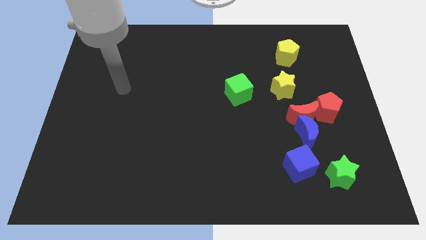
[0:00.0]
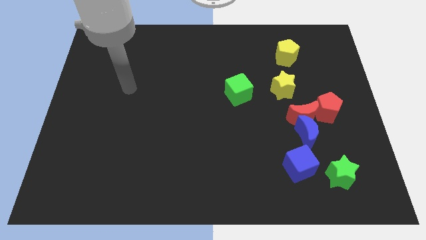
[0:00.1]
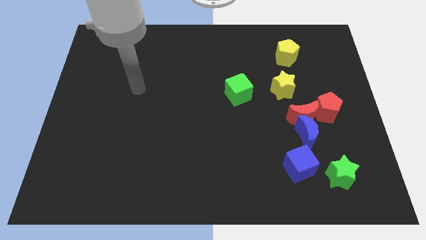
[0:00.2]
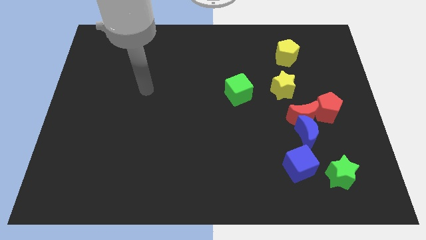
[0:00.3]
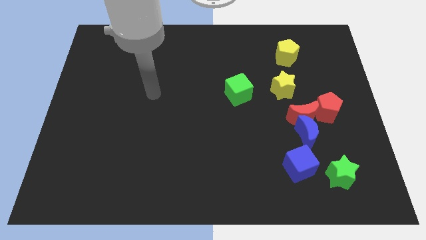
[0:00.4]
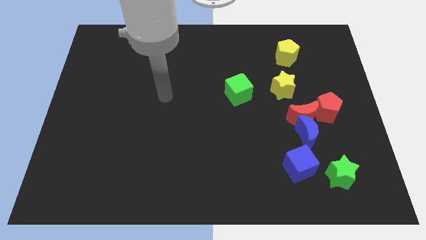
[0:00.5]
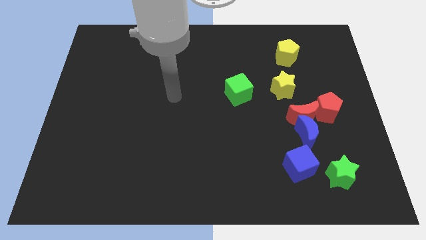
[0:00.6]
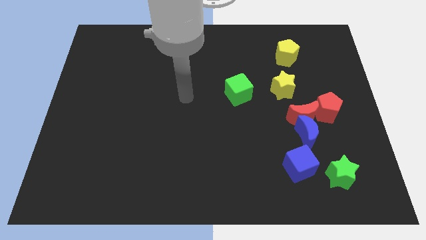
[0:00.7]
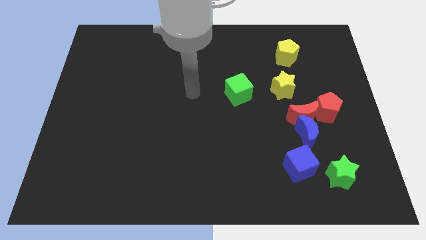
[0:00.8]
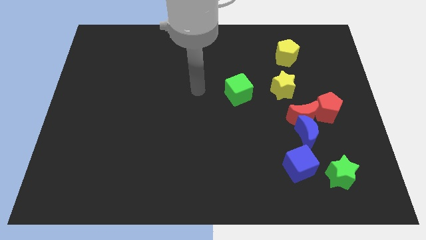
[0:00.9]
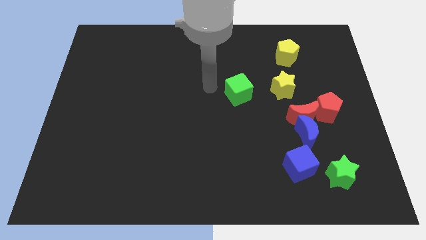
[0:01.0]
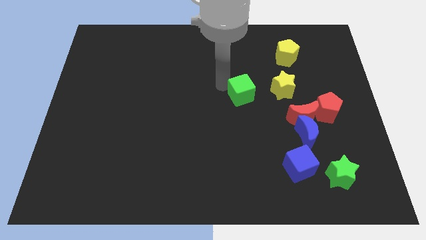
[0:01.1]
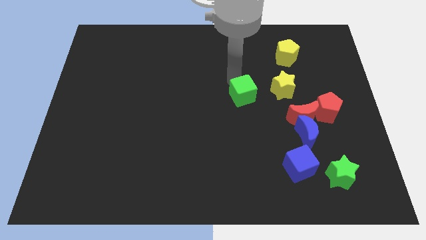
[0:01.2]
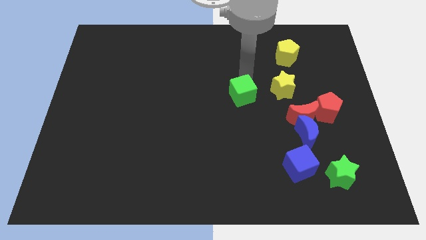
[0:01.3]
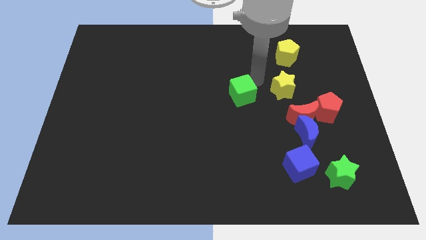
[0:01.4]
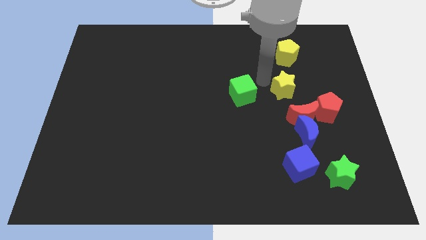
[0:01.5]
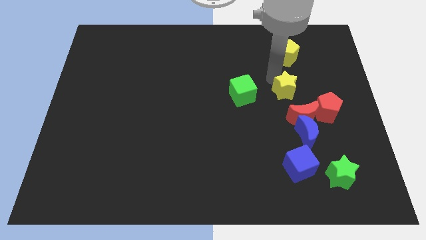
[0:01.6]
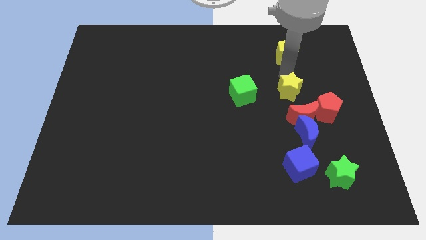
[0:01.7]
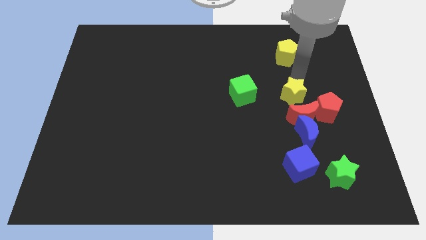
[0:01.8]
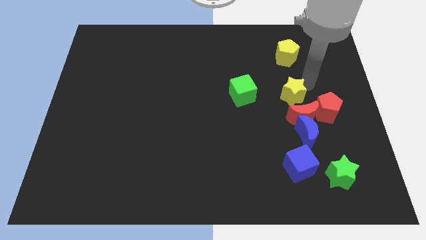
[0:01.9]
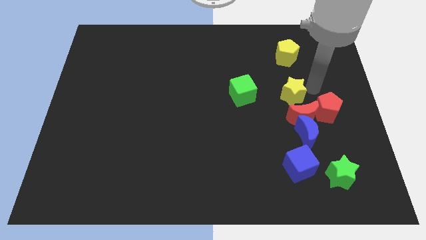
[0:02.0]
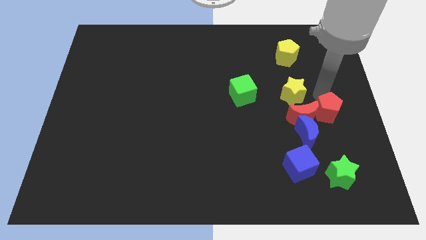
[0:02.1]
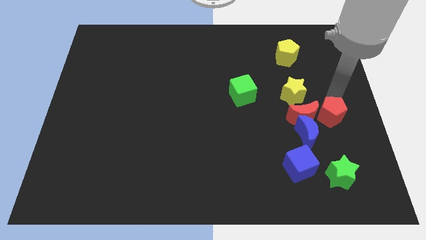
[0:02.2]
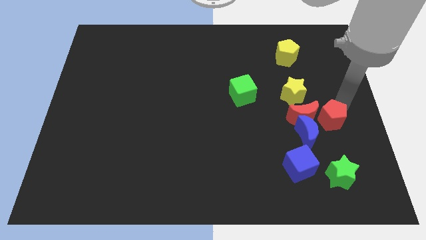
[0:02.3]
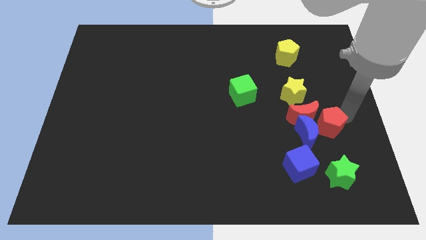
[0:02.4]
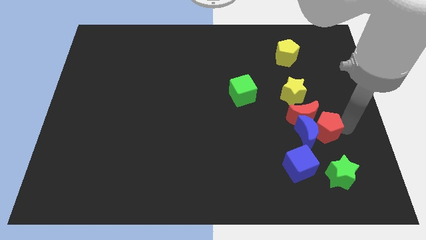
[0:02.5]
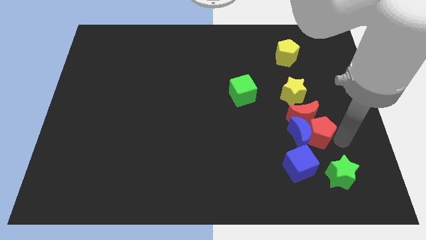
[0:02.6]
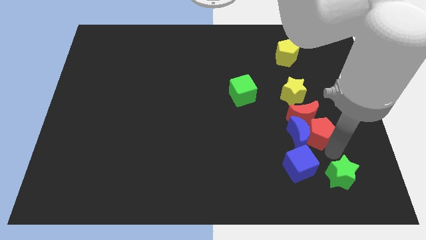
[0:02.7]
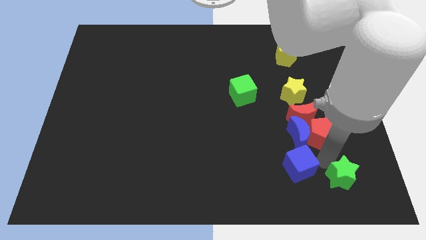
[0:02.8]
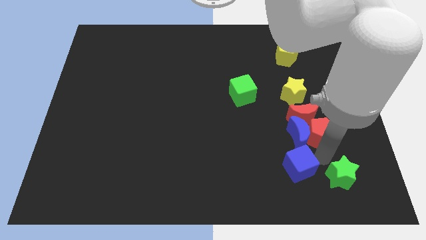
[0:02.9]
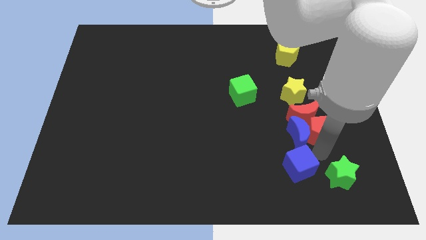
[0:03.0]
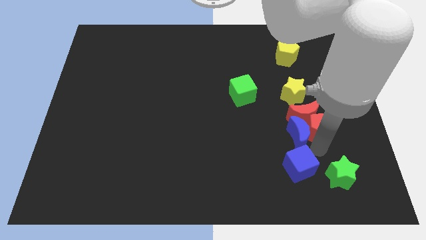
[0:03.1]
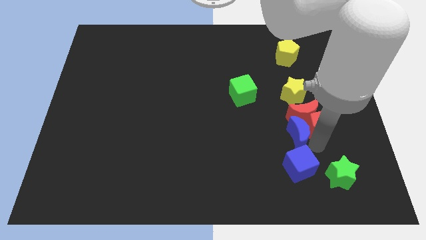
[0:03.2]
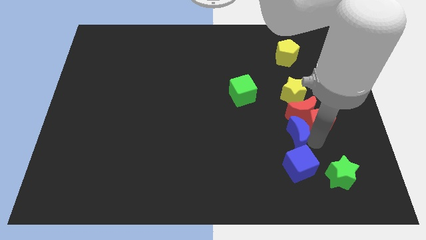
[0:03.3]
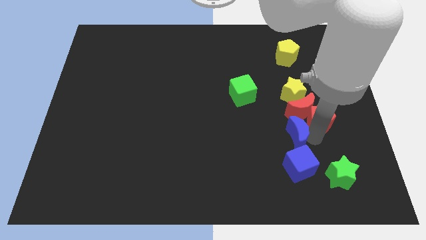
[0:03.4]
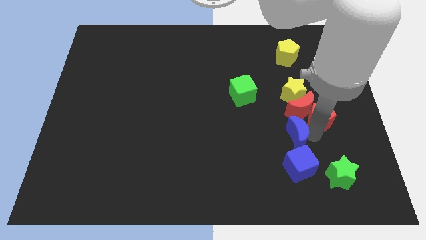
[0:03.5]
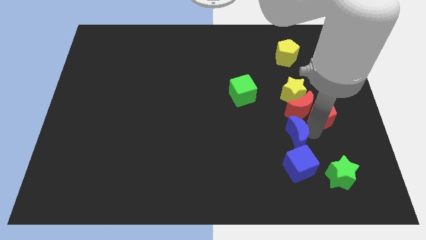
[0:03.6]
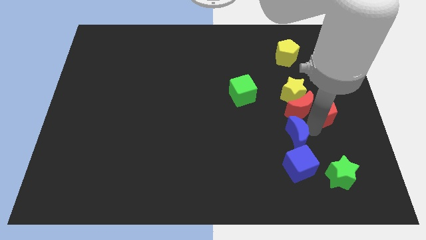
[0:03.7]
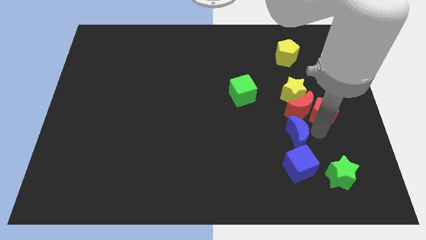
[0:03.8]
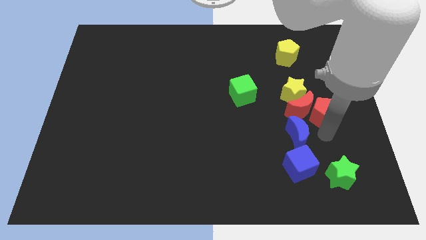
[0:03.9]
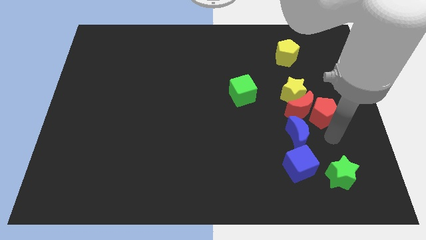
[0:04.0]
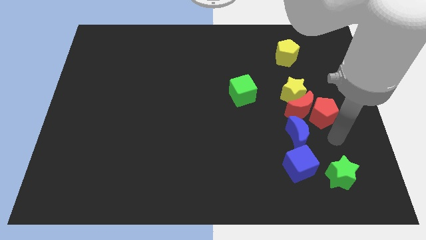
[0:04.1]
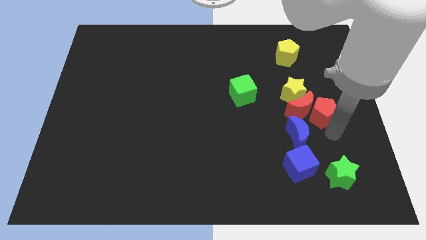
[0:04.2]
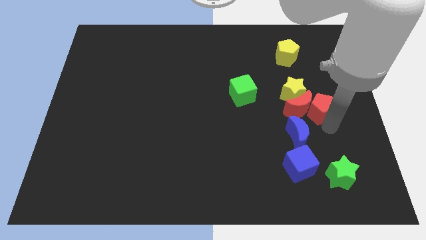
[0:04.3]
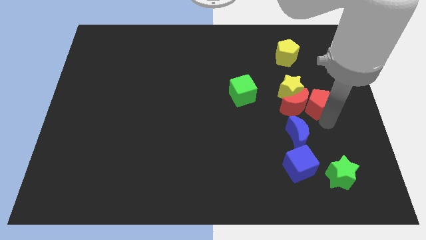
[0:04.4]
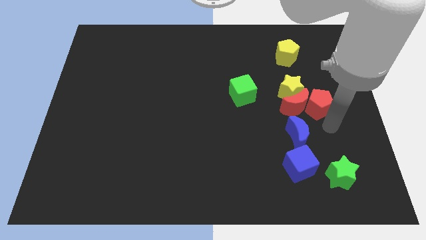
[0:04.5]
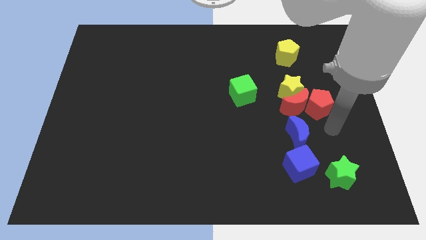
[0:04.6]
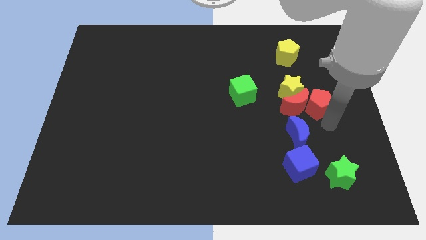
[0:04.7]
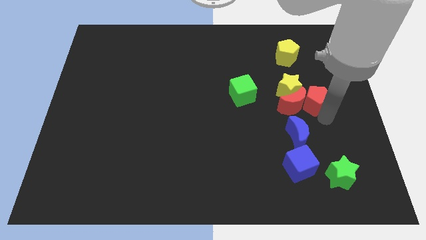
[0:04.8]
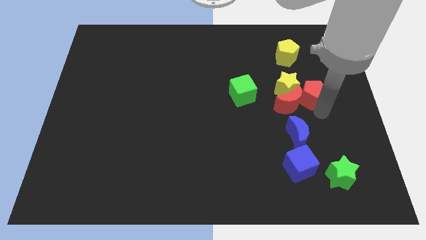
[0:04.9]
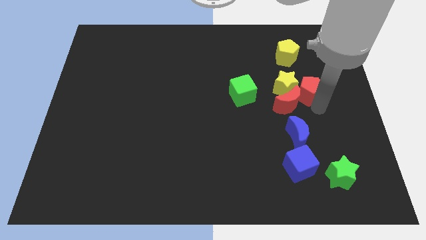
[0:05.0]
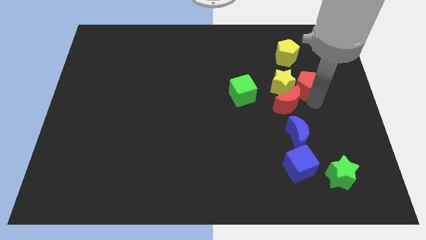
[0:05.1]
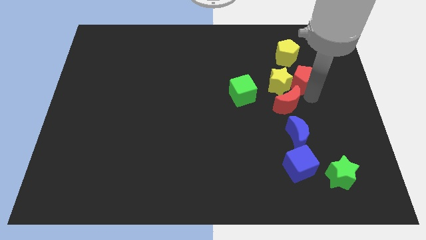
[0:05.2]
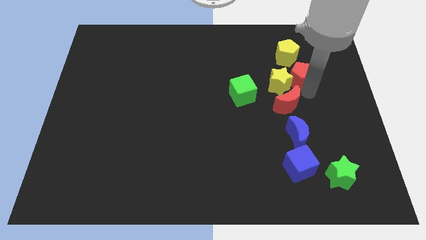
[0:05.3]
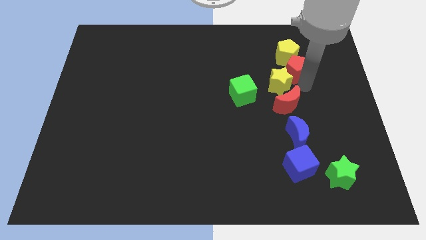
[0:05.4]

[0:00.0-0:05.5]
push the red pentagon close to the yellow pentagon

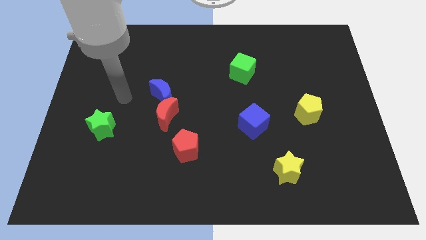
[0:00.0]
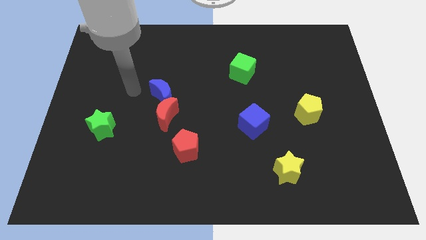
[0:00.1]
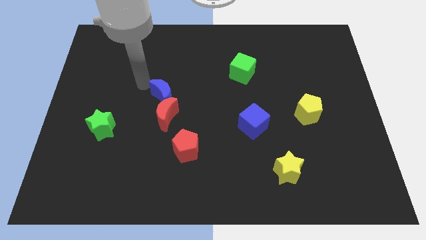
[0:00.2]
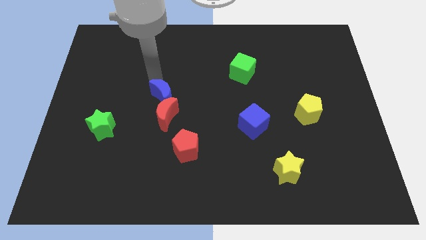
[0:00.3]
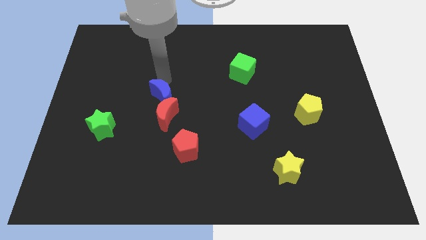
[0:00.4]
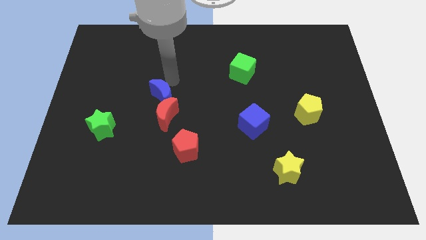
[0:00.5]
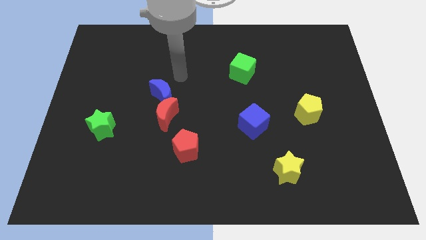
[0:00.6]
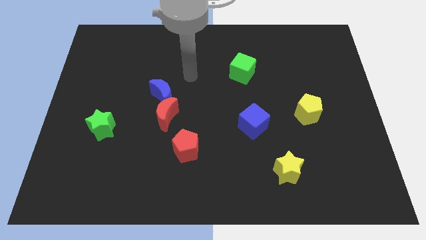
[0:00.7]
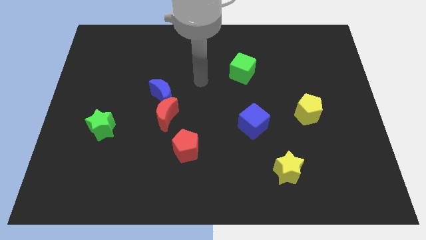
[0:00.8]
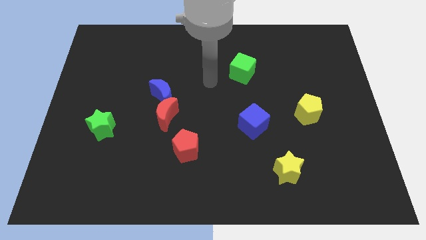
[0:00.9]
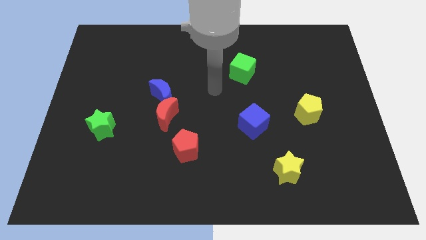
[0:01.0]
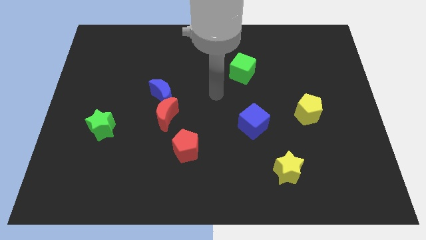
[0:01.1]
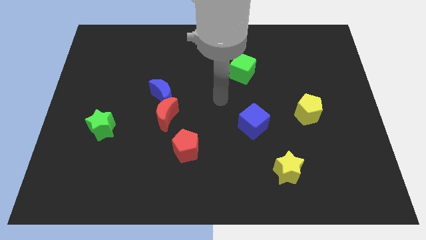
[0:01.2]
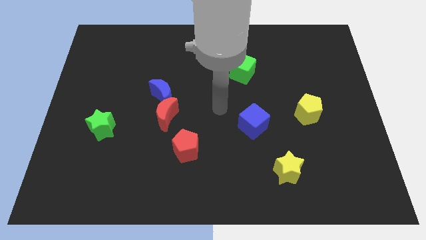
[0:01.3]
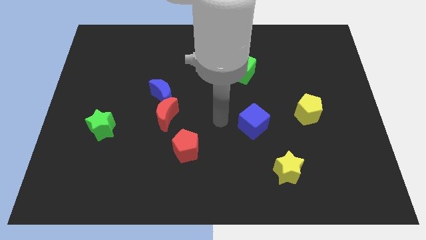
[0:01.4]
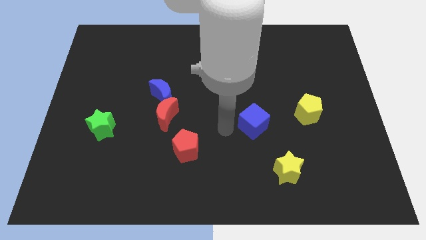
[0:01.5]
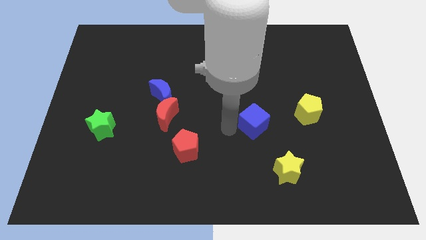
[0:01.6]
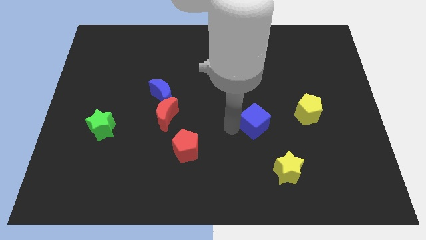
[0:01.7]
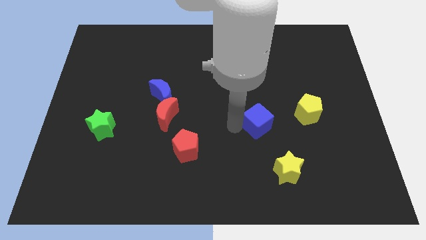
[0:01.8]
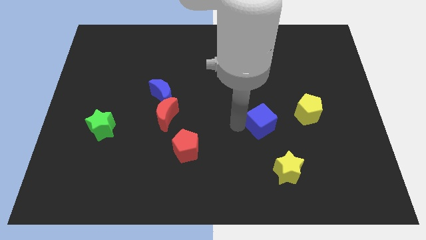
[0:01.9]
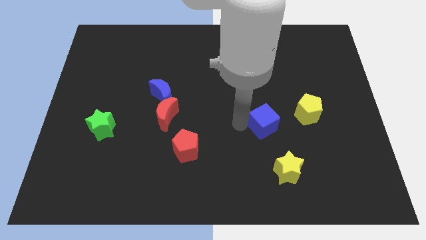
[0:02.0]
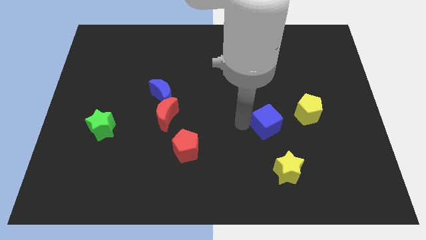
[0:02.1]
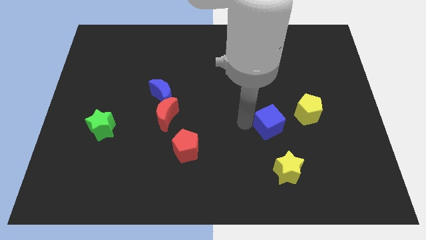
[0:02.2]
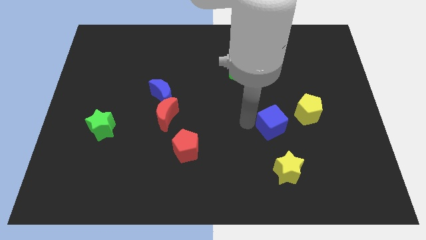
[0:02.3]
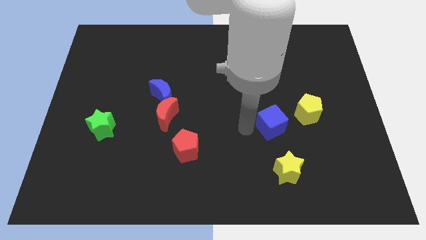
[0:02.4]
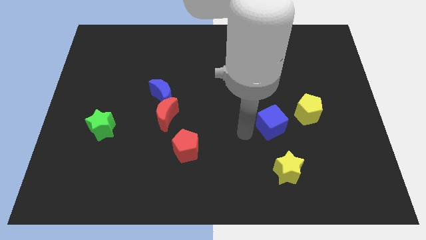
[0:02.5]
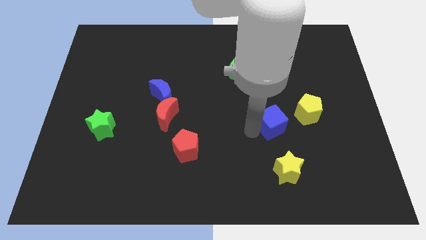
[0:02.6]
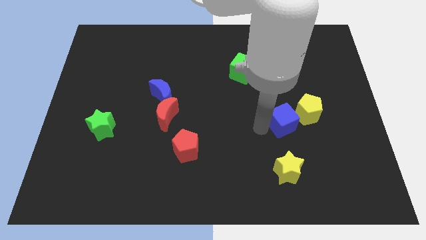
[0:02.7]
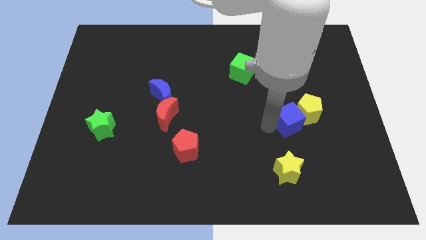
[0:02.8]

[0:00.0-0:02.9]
push the blue cube next to the yellow pentagon
